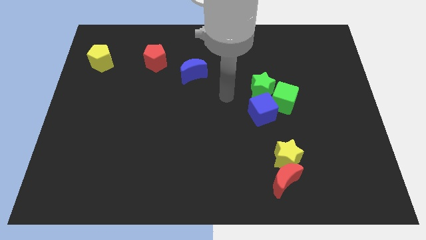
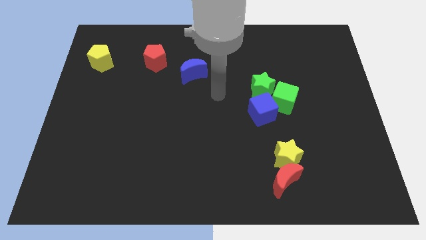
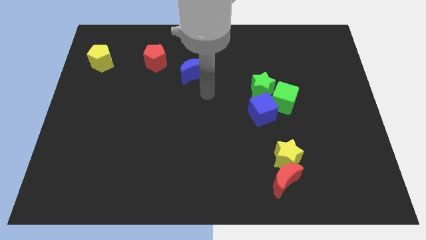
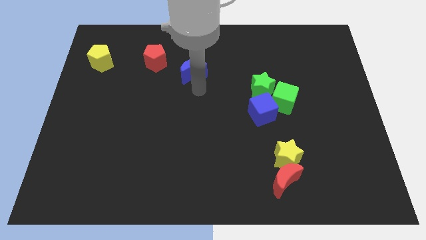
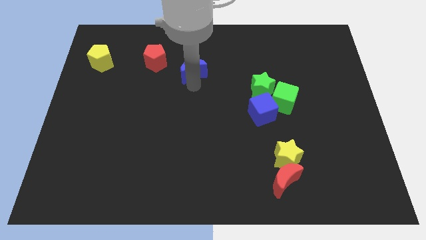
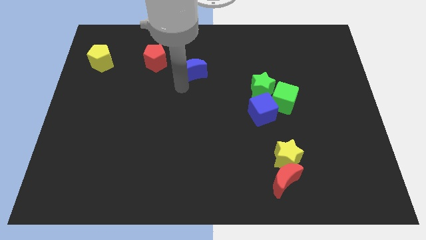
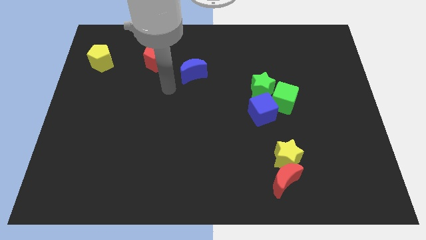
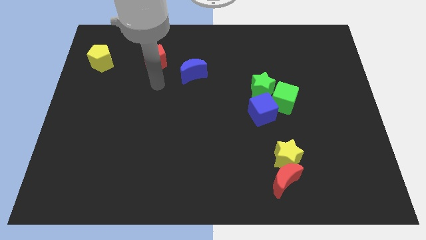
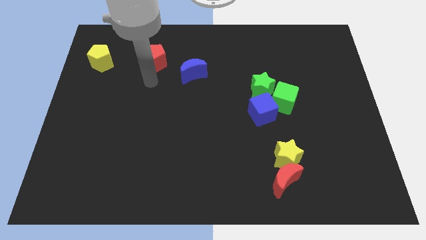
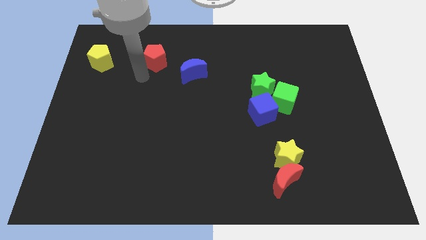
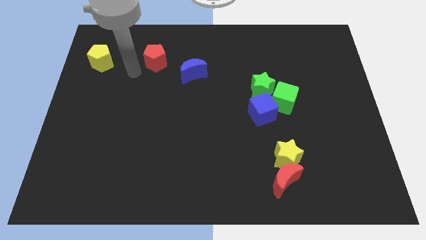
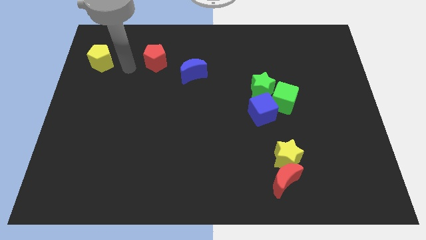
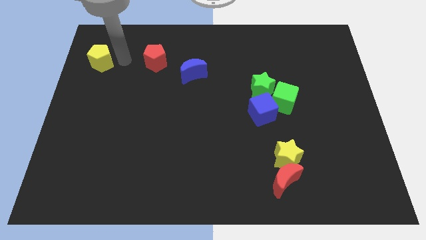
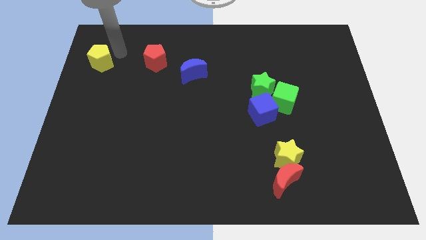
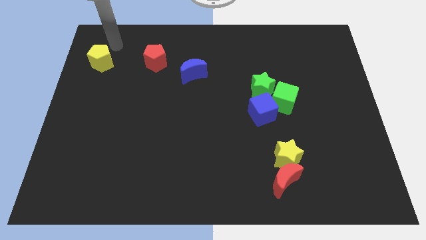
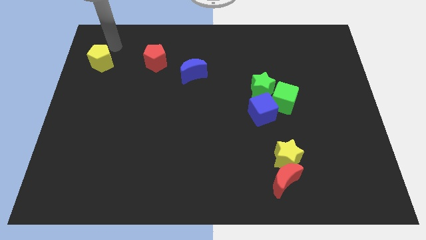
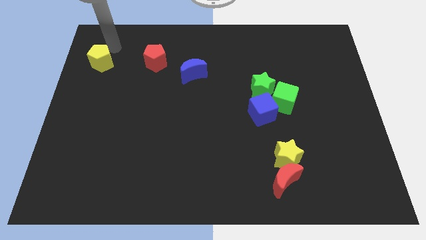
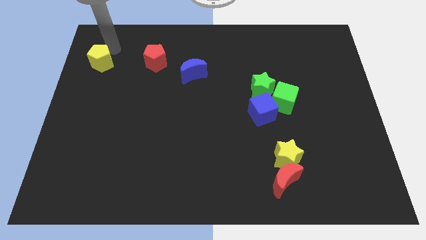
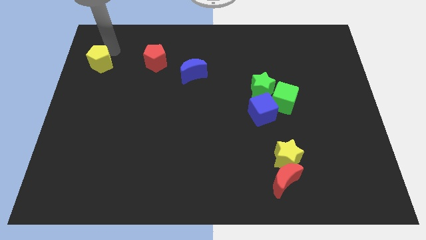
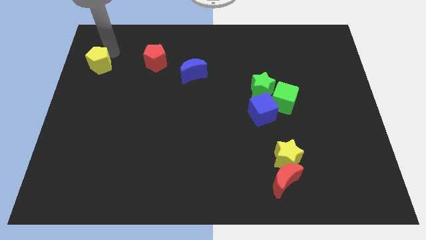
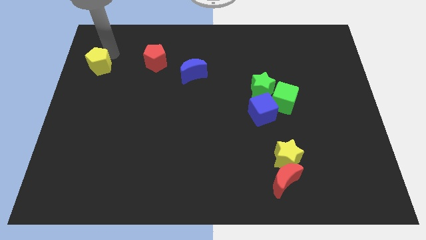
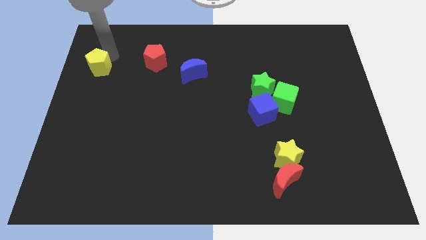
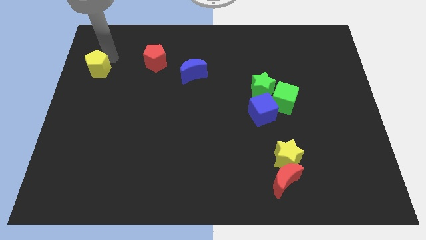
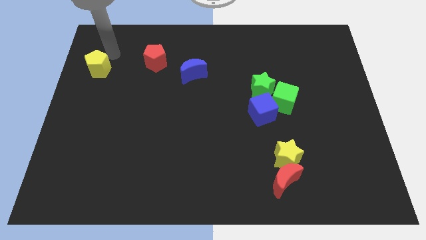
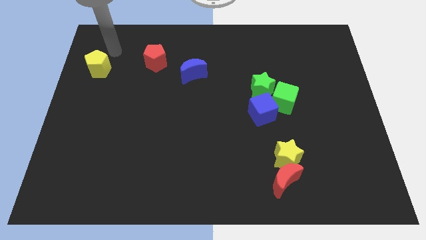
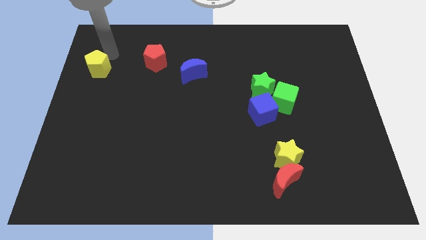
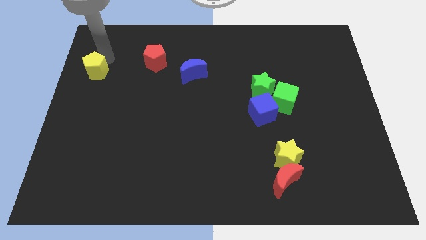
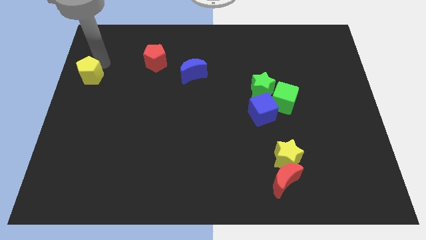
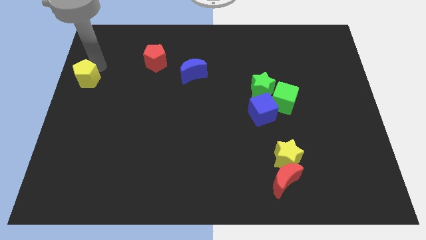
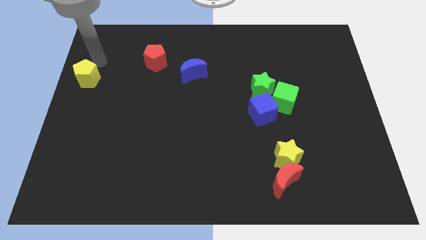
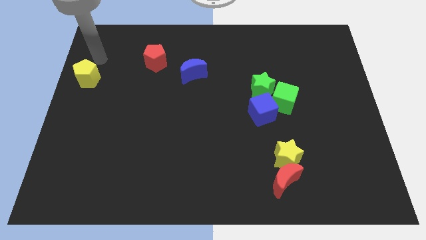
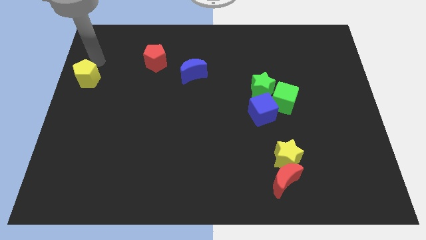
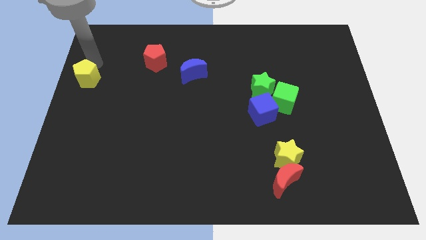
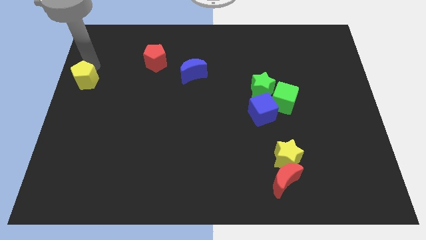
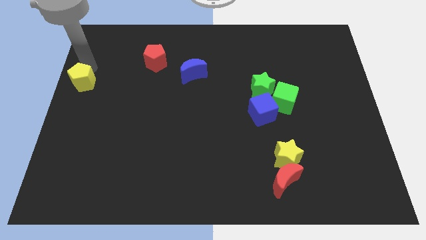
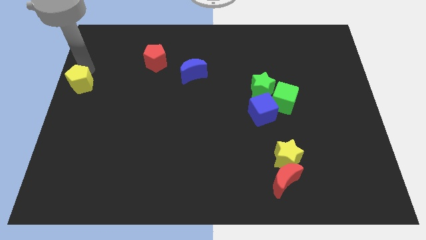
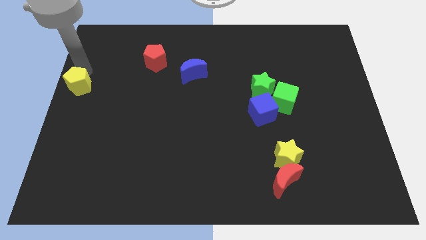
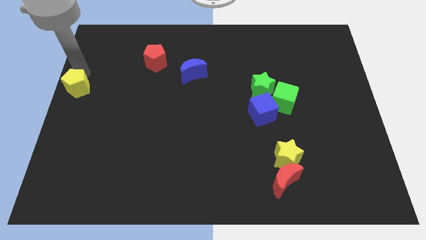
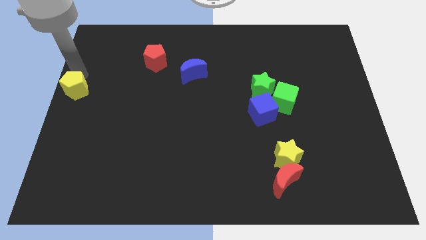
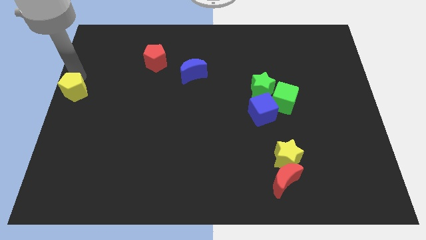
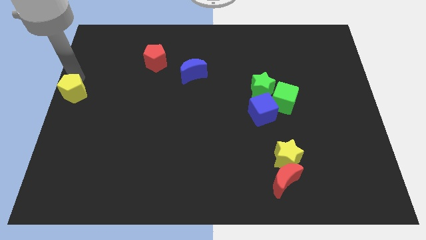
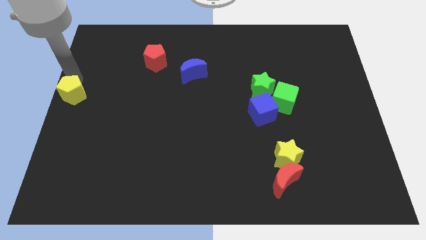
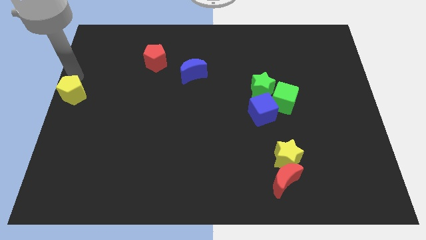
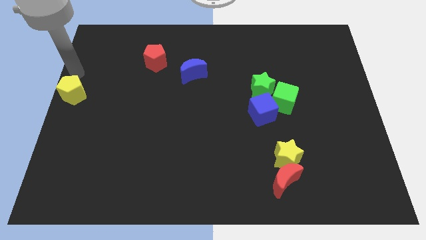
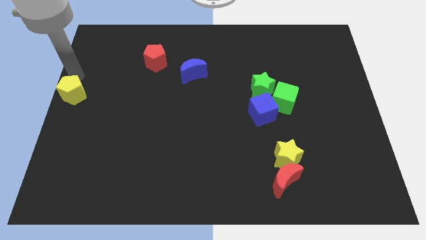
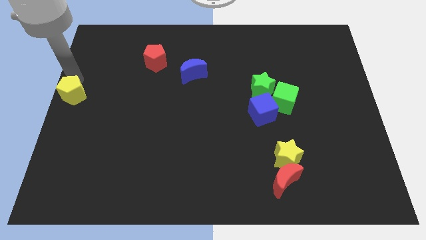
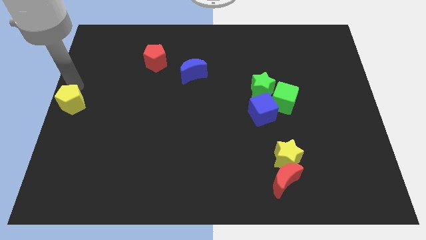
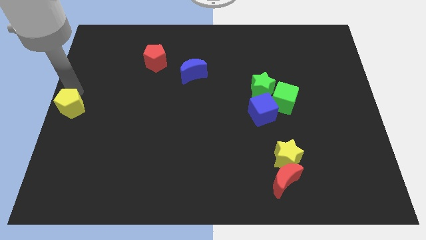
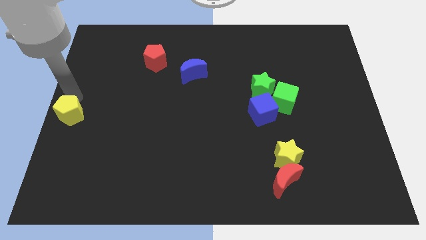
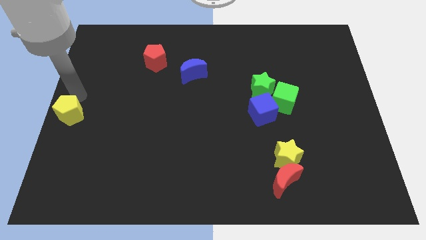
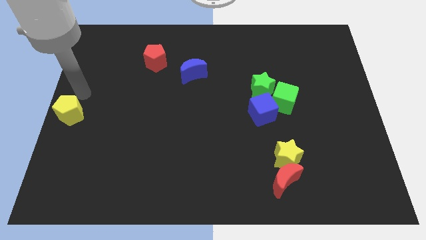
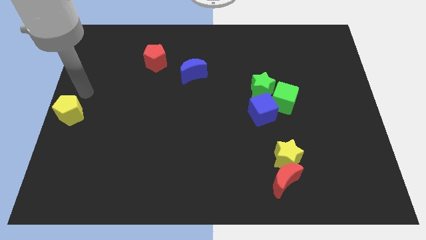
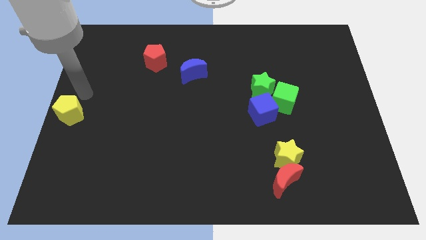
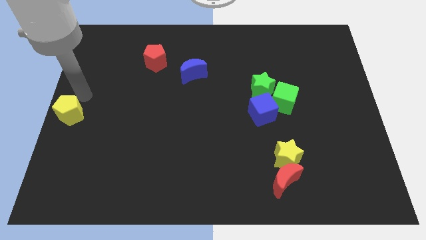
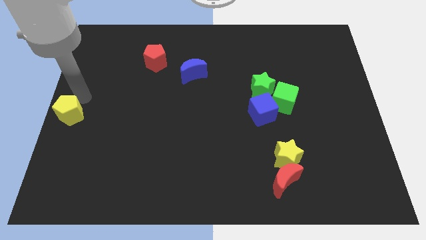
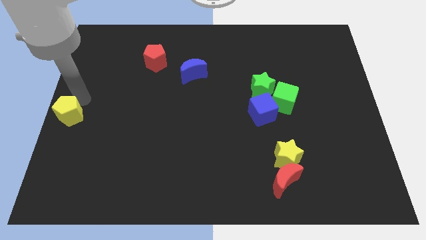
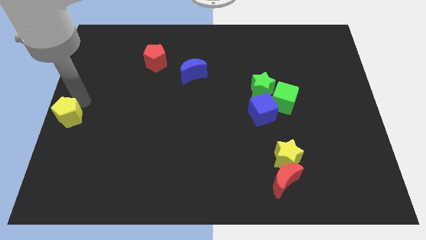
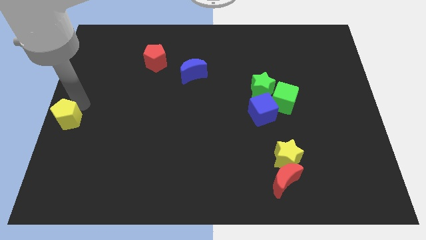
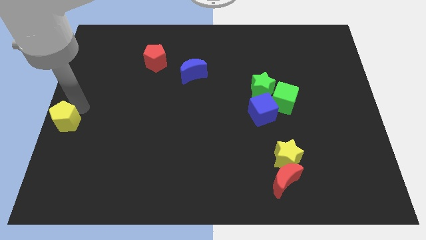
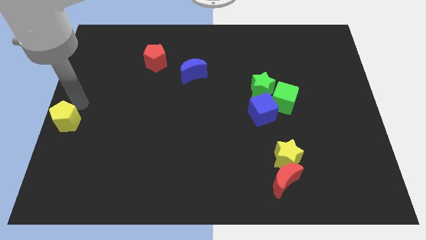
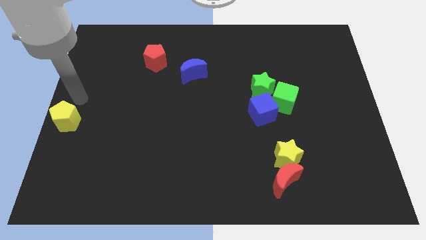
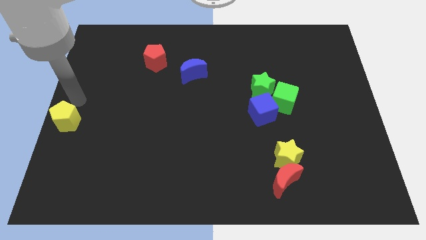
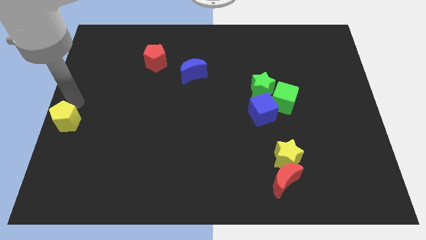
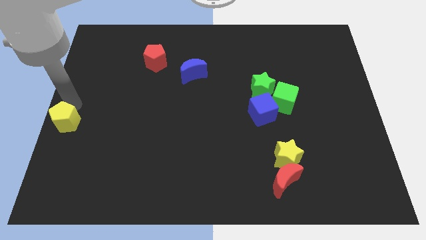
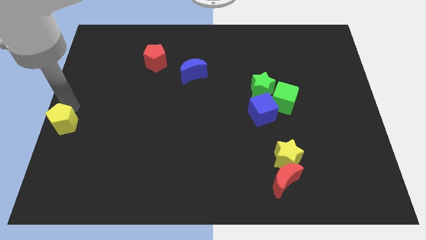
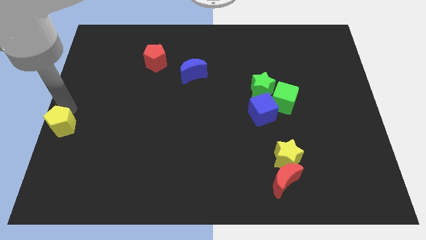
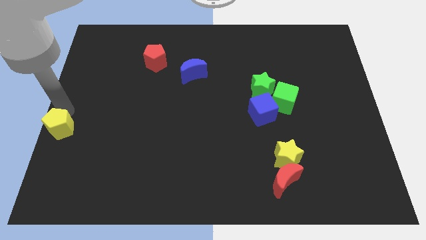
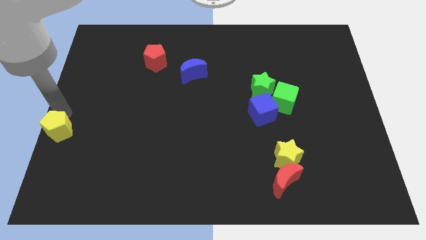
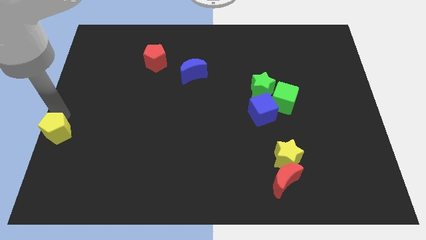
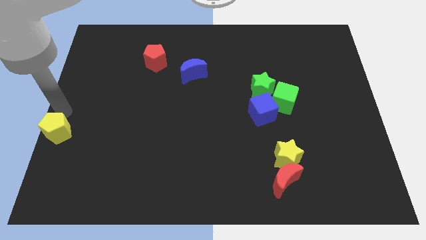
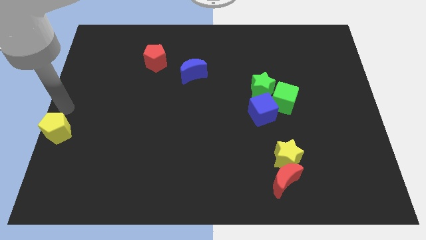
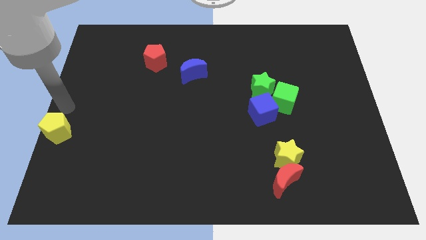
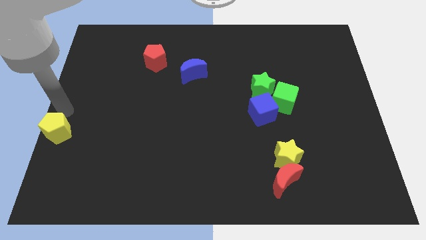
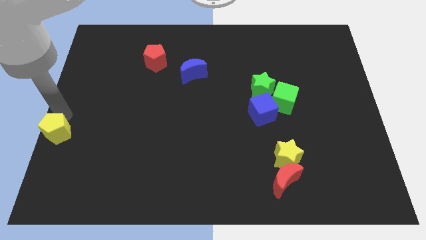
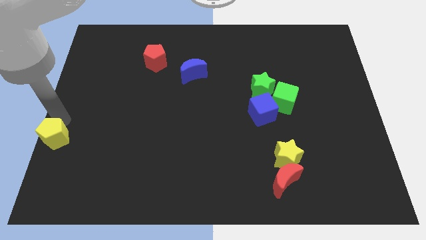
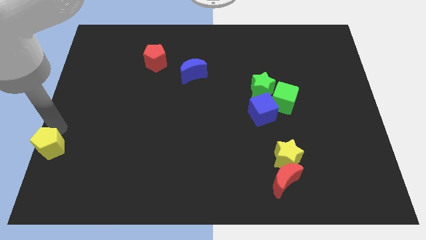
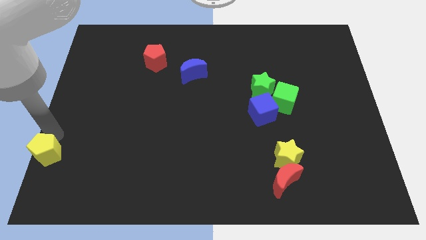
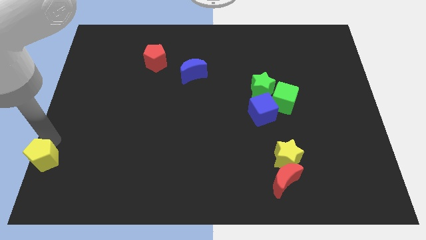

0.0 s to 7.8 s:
move the yellow pentagon to the bottom left
